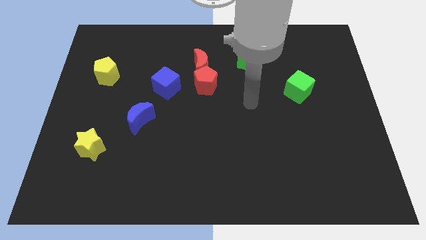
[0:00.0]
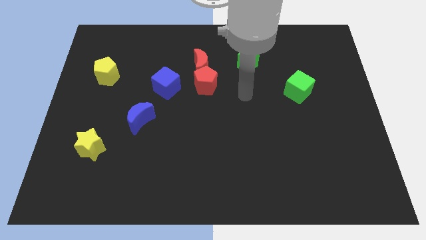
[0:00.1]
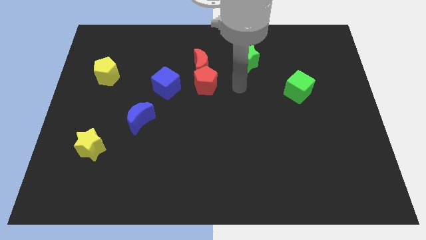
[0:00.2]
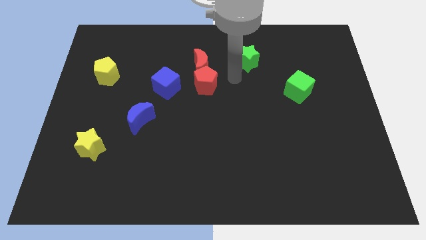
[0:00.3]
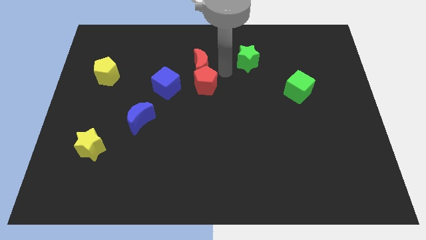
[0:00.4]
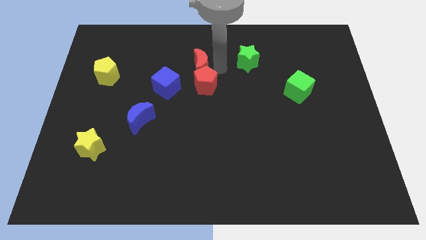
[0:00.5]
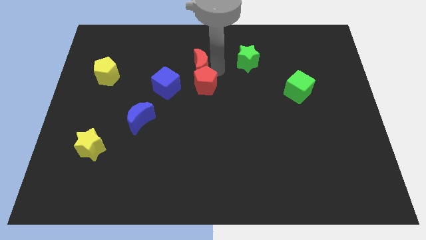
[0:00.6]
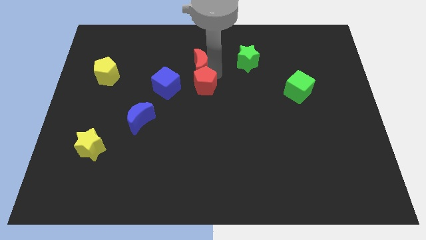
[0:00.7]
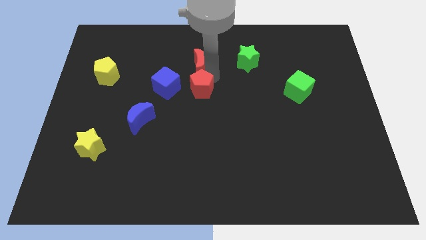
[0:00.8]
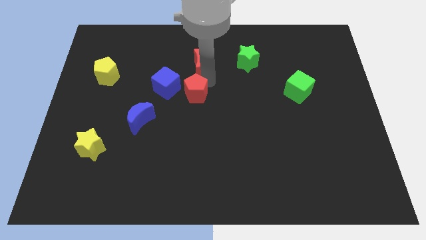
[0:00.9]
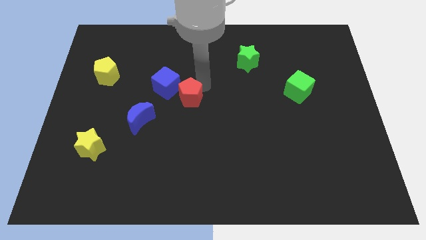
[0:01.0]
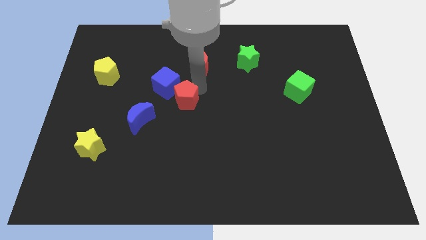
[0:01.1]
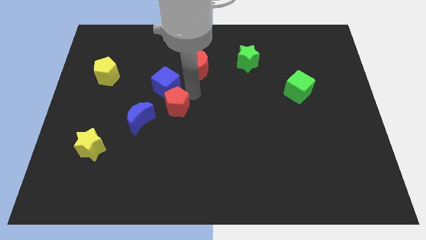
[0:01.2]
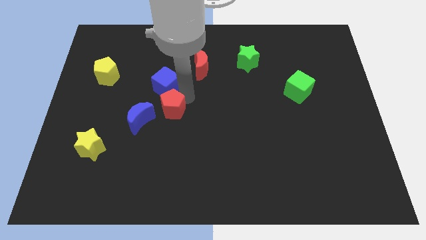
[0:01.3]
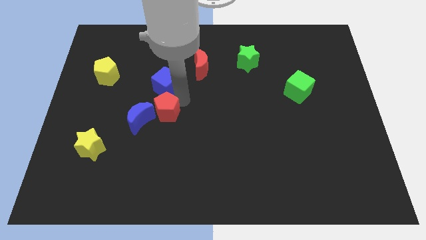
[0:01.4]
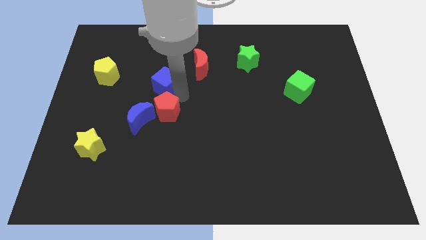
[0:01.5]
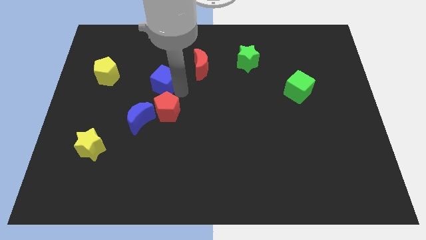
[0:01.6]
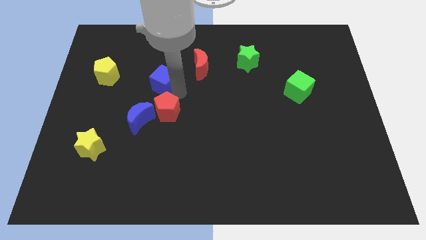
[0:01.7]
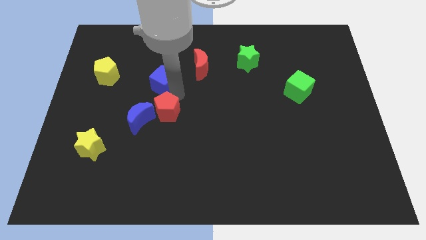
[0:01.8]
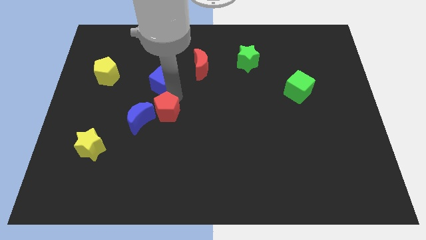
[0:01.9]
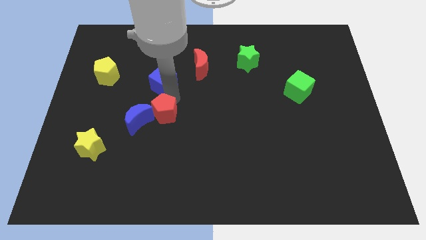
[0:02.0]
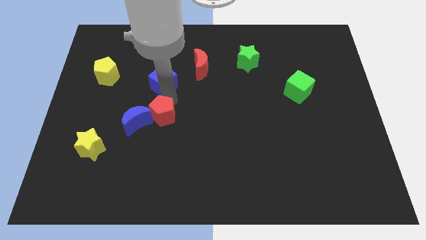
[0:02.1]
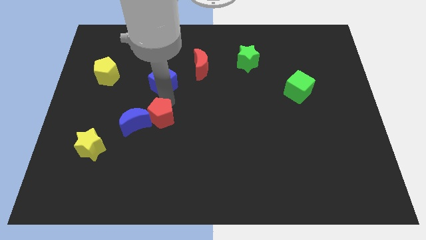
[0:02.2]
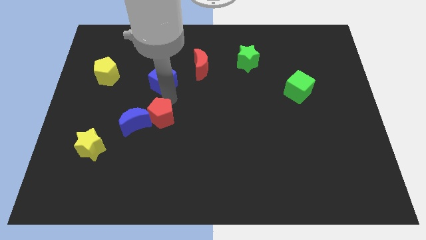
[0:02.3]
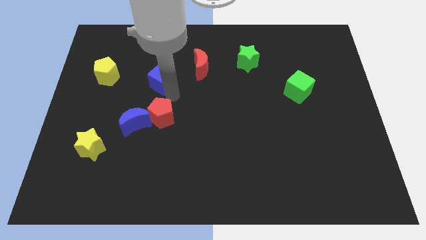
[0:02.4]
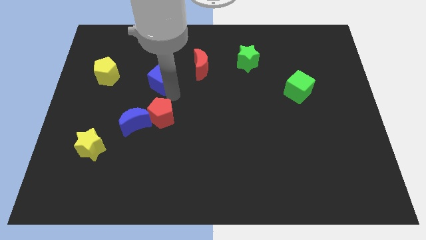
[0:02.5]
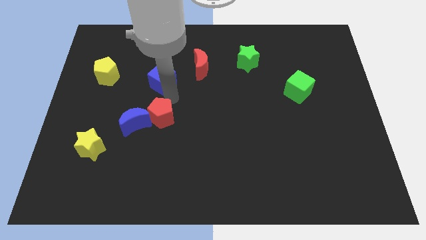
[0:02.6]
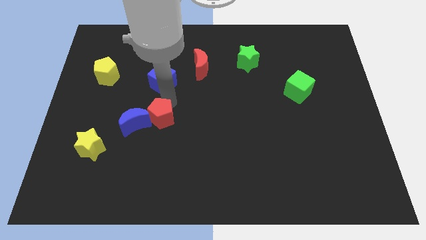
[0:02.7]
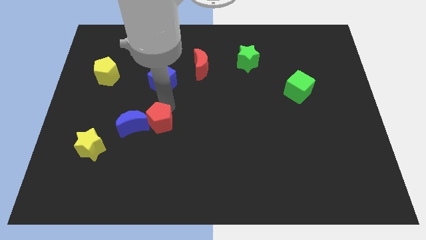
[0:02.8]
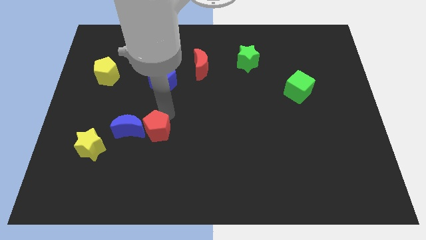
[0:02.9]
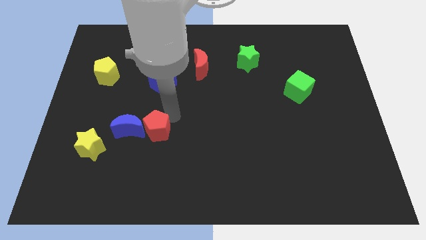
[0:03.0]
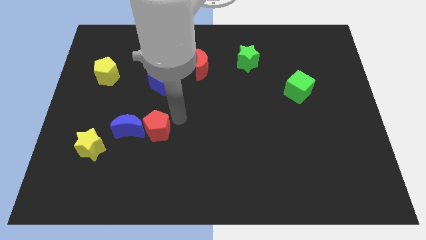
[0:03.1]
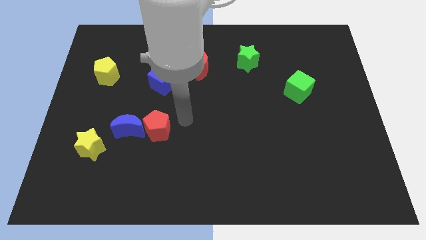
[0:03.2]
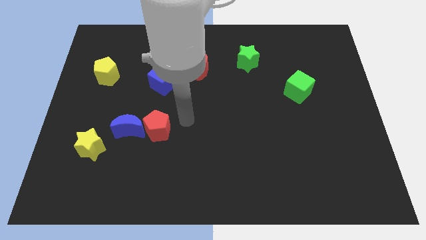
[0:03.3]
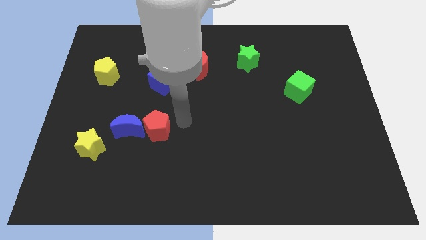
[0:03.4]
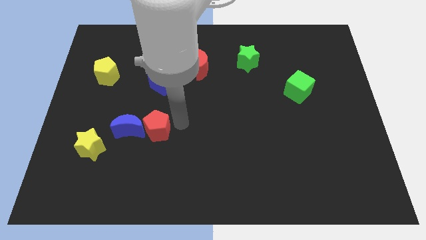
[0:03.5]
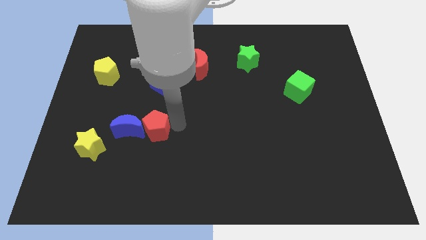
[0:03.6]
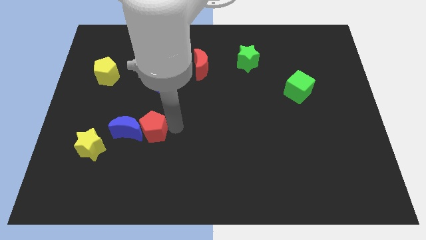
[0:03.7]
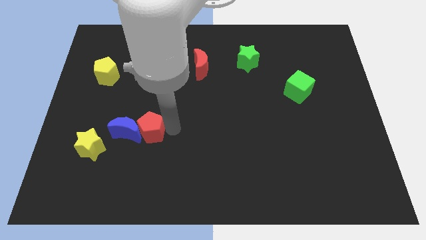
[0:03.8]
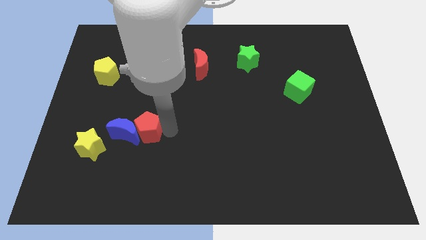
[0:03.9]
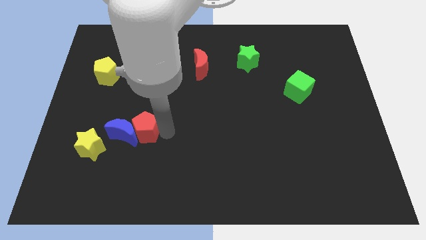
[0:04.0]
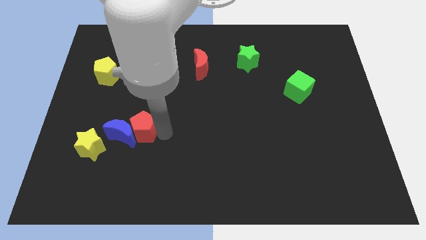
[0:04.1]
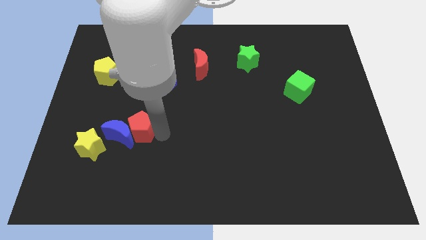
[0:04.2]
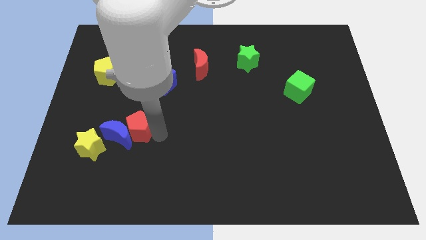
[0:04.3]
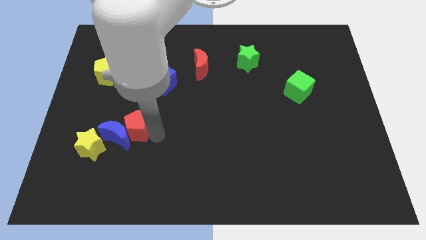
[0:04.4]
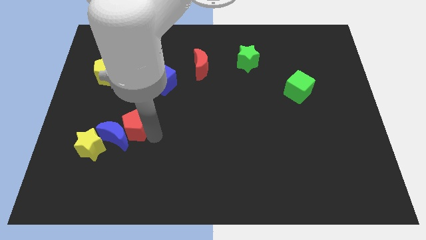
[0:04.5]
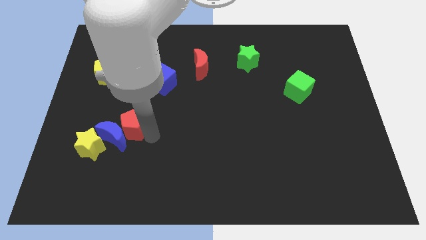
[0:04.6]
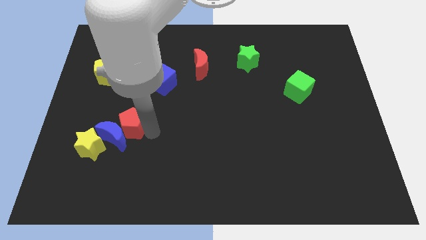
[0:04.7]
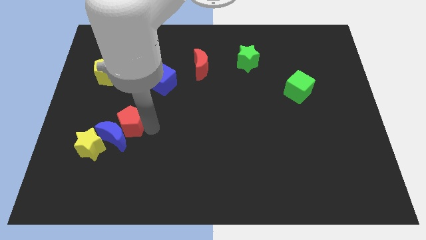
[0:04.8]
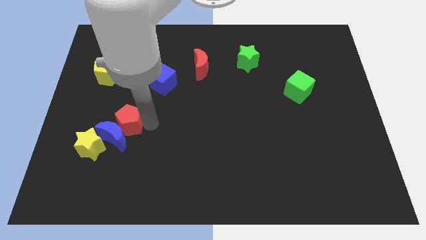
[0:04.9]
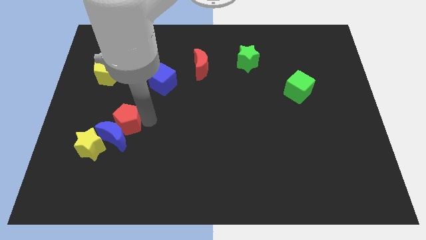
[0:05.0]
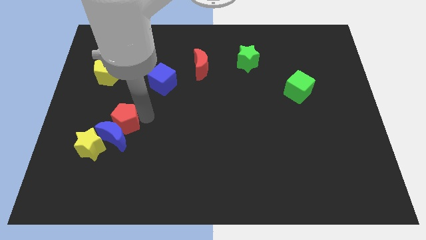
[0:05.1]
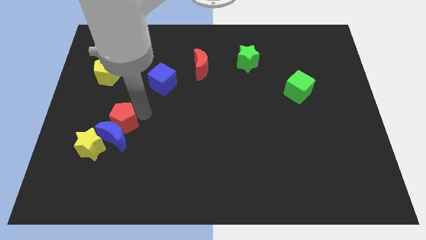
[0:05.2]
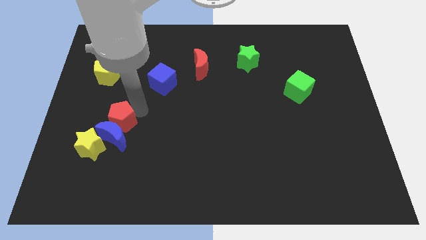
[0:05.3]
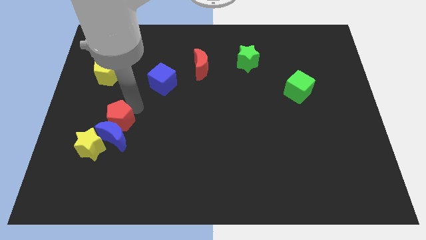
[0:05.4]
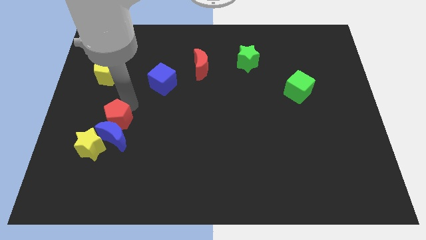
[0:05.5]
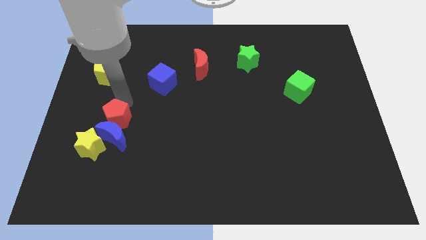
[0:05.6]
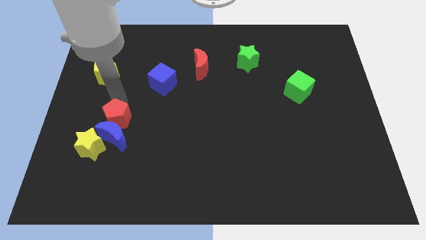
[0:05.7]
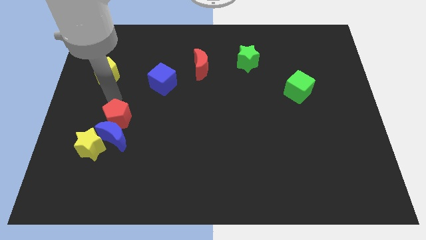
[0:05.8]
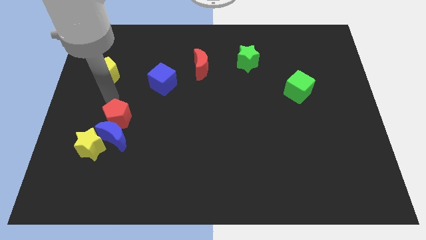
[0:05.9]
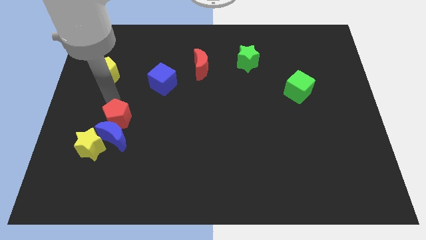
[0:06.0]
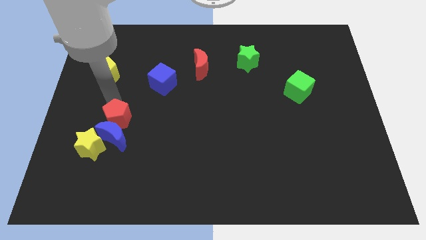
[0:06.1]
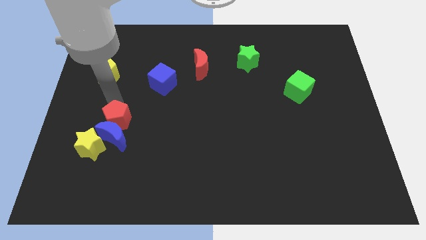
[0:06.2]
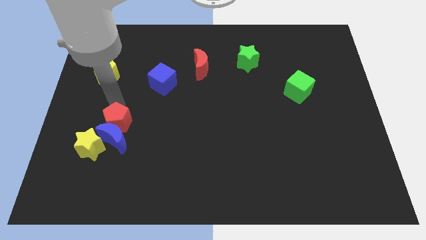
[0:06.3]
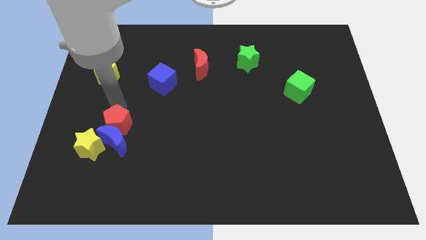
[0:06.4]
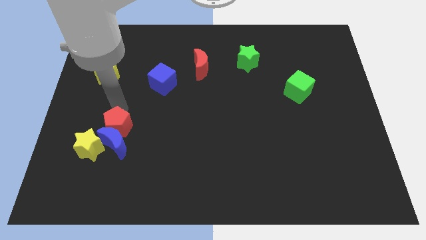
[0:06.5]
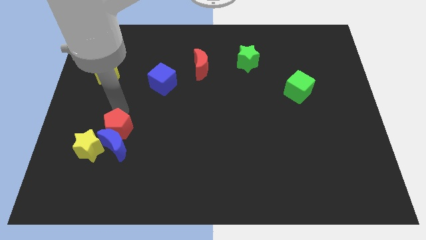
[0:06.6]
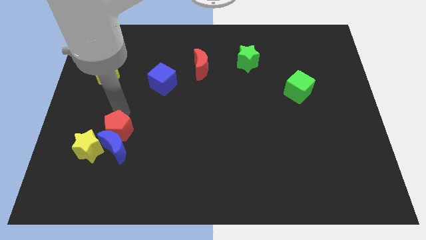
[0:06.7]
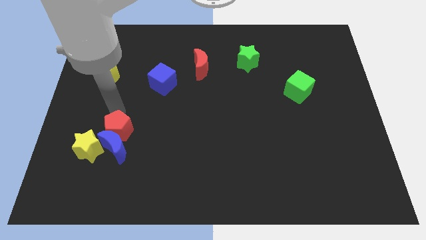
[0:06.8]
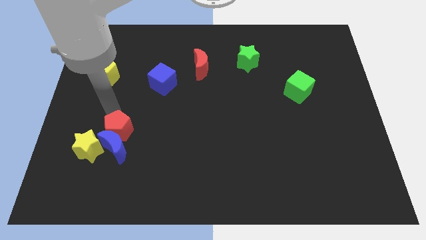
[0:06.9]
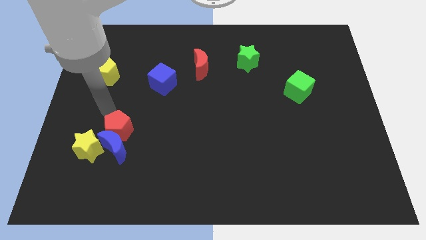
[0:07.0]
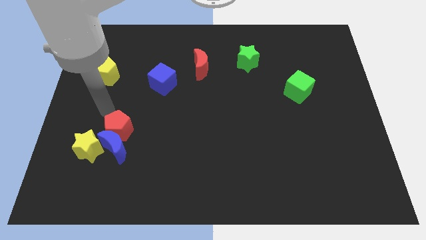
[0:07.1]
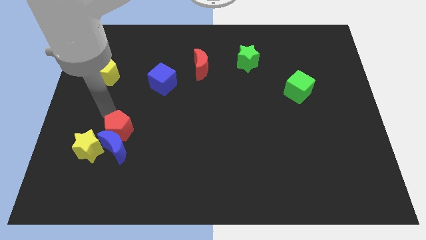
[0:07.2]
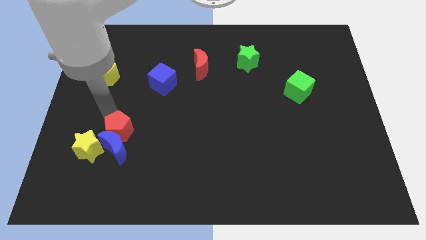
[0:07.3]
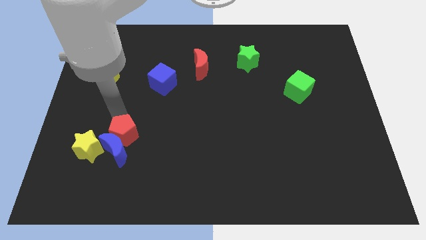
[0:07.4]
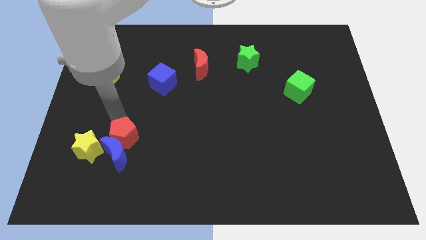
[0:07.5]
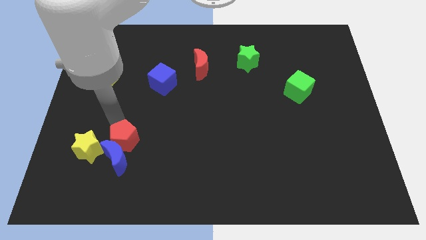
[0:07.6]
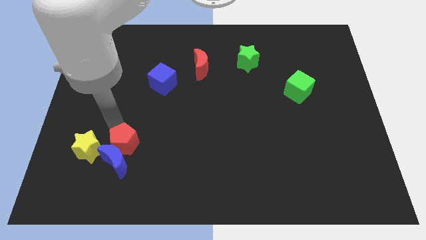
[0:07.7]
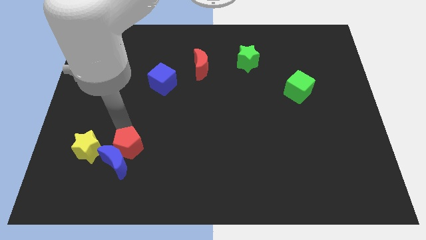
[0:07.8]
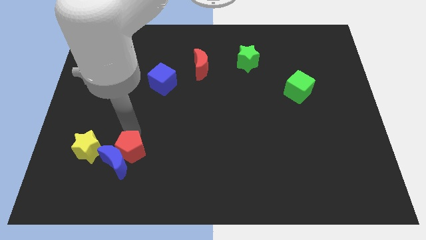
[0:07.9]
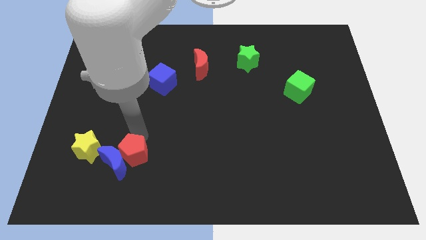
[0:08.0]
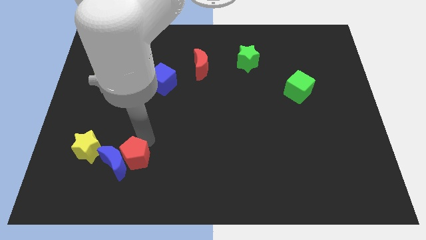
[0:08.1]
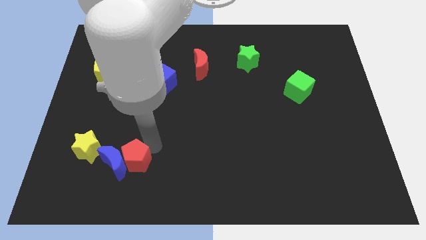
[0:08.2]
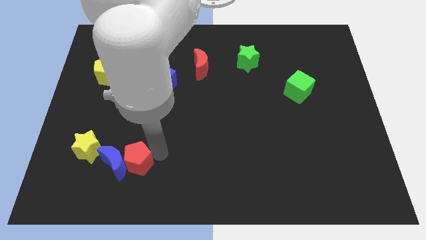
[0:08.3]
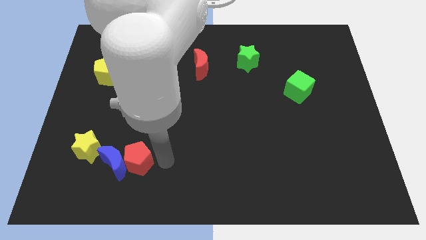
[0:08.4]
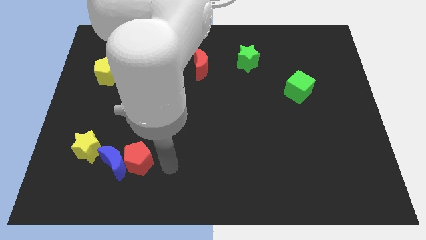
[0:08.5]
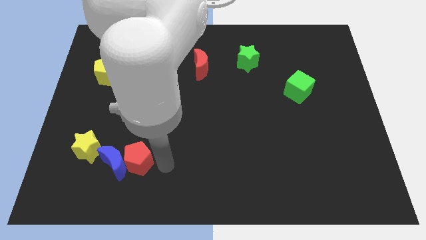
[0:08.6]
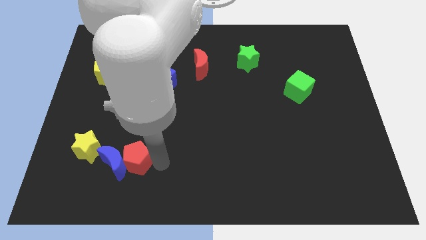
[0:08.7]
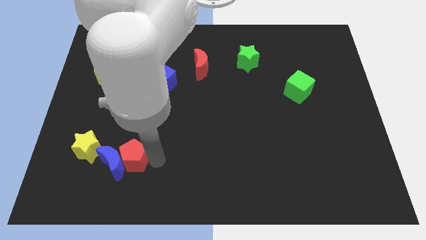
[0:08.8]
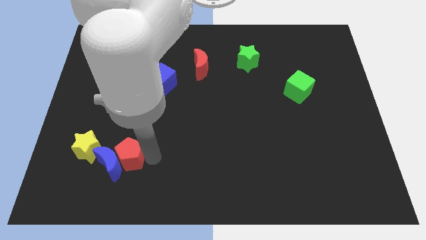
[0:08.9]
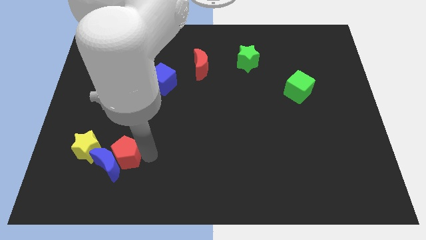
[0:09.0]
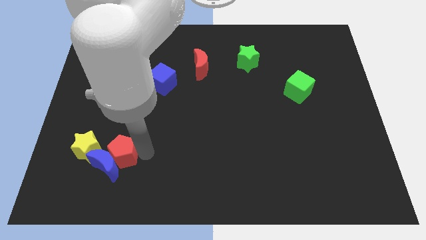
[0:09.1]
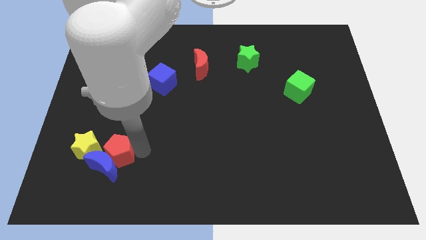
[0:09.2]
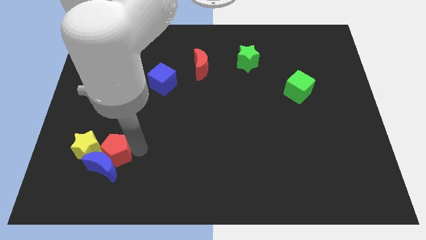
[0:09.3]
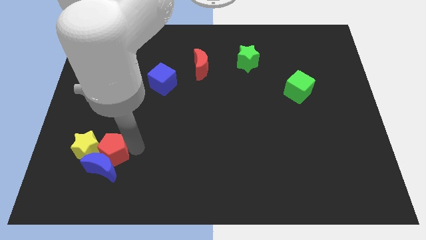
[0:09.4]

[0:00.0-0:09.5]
move the red pentagon close to the yellow star
